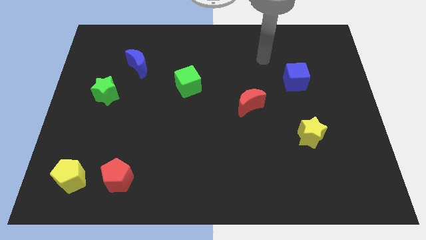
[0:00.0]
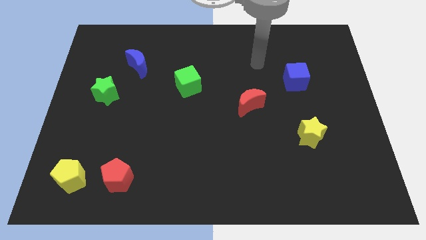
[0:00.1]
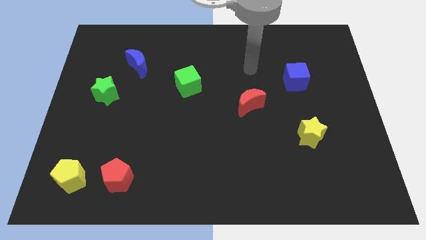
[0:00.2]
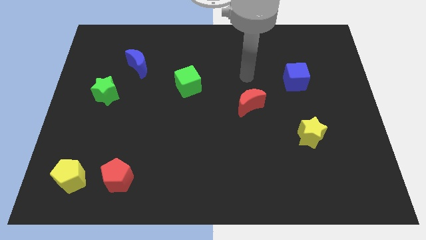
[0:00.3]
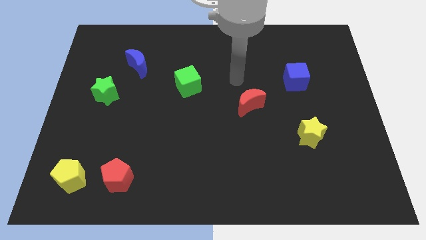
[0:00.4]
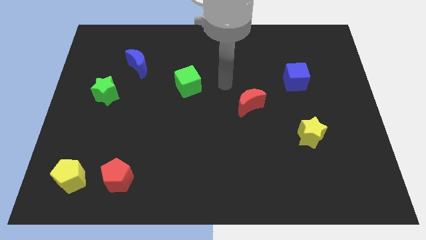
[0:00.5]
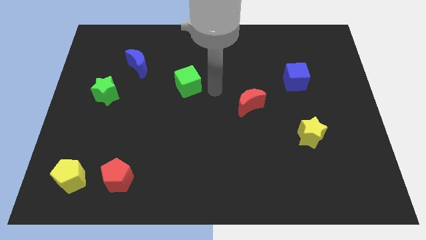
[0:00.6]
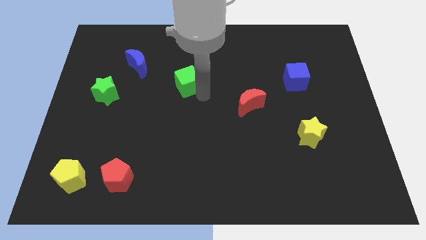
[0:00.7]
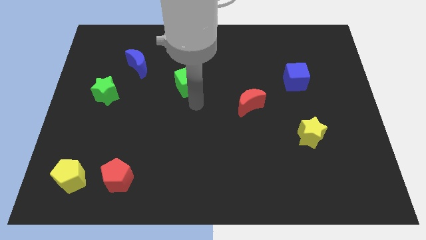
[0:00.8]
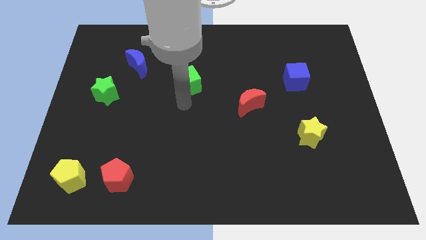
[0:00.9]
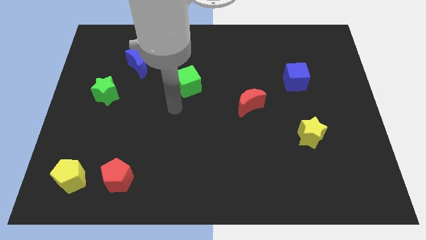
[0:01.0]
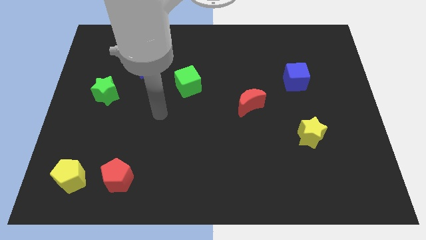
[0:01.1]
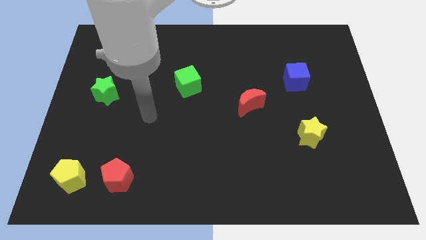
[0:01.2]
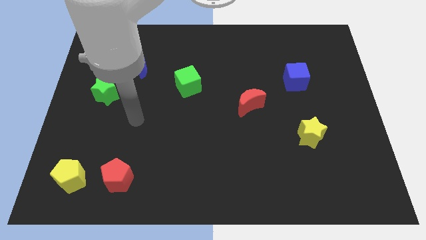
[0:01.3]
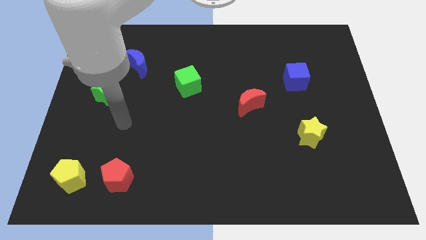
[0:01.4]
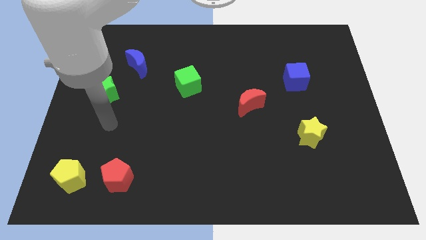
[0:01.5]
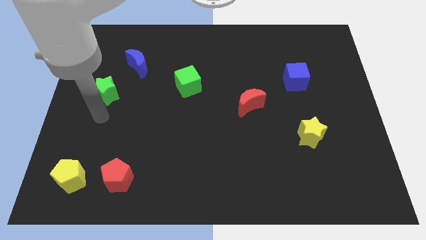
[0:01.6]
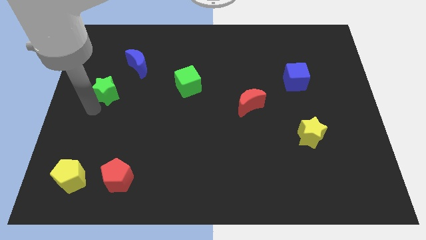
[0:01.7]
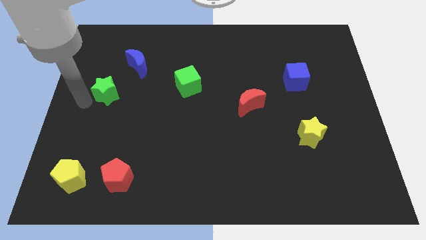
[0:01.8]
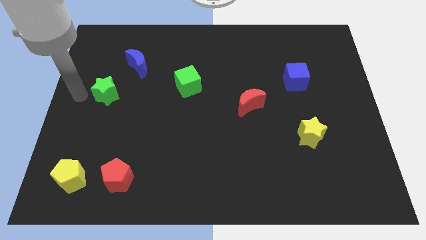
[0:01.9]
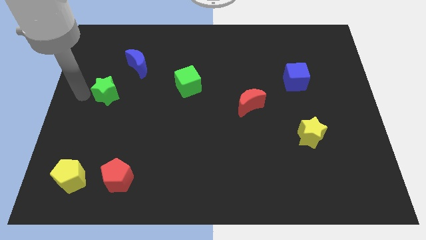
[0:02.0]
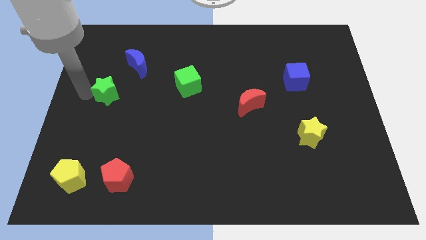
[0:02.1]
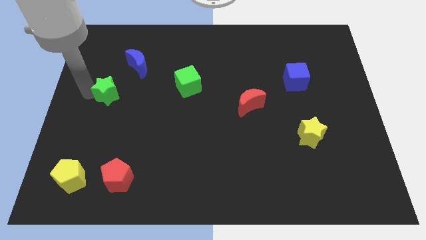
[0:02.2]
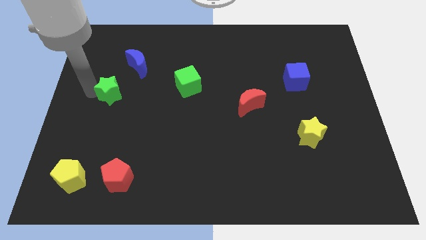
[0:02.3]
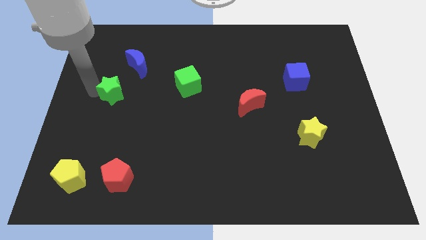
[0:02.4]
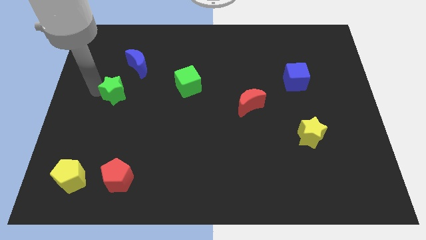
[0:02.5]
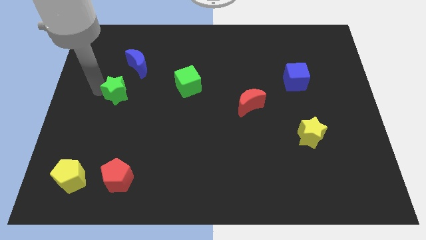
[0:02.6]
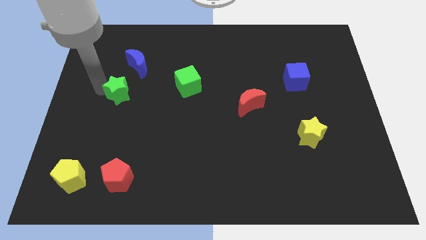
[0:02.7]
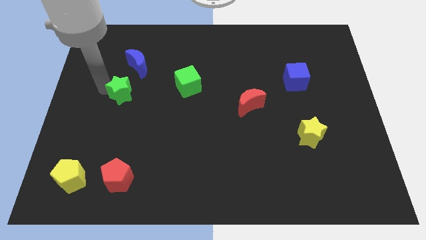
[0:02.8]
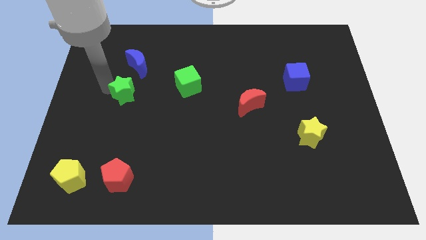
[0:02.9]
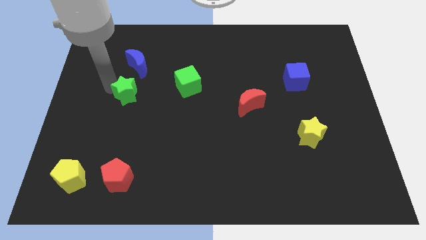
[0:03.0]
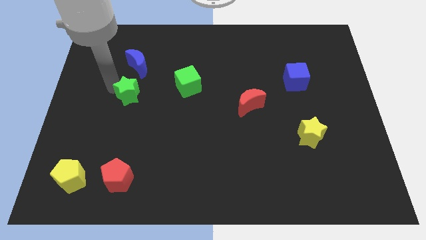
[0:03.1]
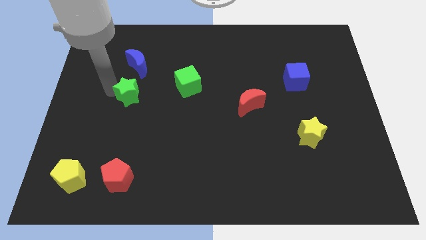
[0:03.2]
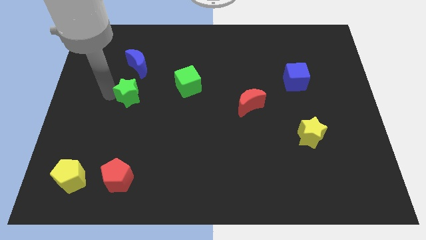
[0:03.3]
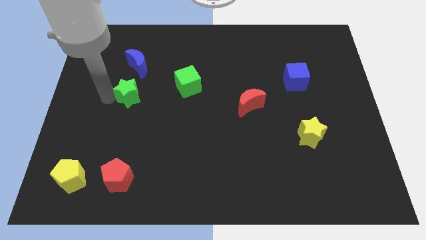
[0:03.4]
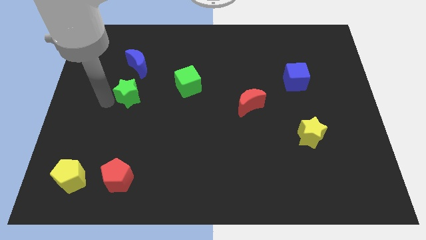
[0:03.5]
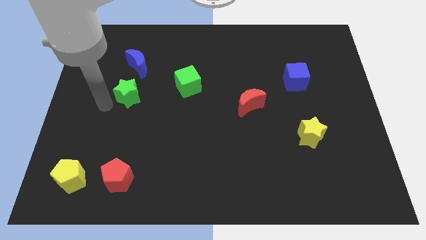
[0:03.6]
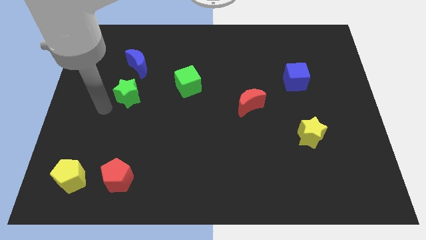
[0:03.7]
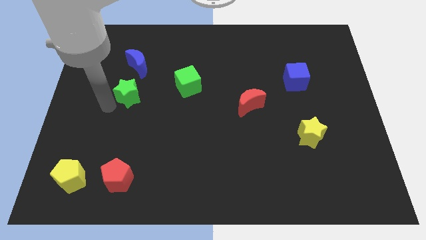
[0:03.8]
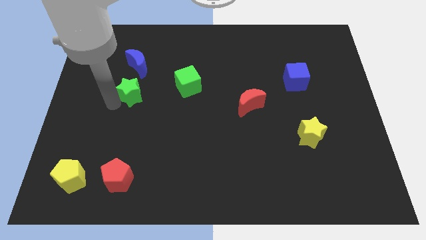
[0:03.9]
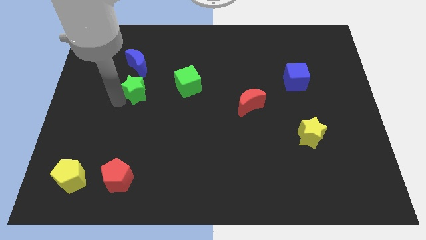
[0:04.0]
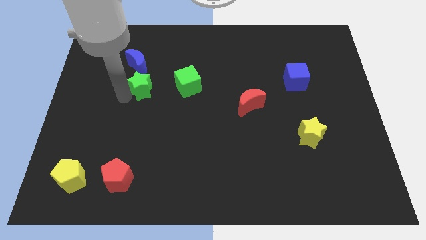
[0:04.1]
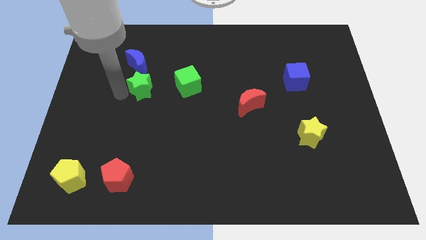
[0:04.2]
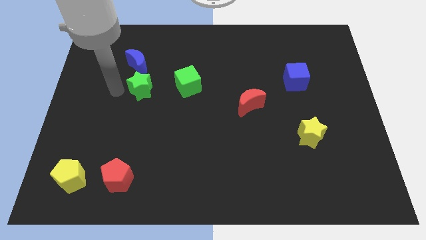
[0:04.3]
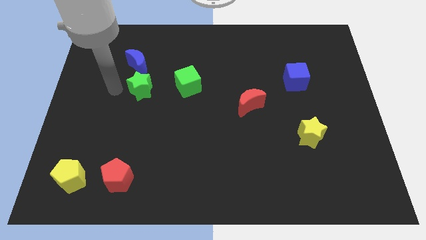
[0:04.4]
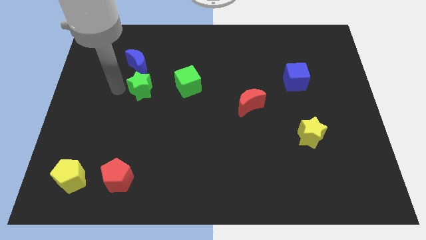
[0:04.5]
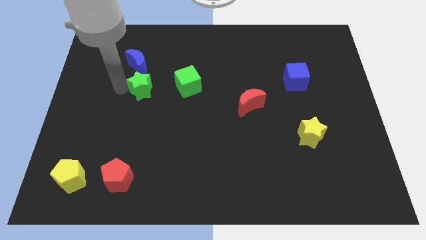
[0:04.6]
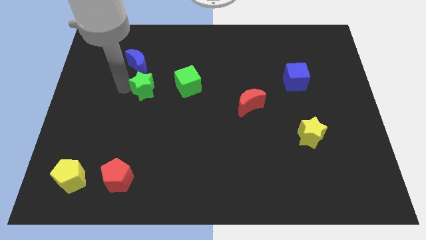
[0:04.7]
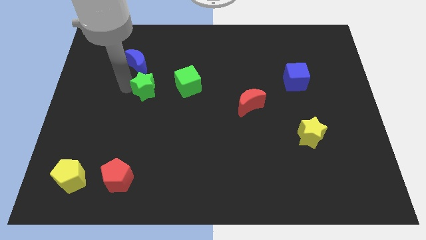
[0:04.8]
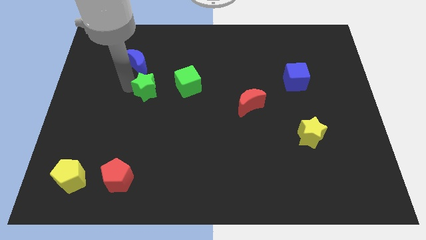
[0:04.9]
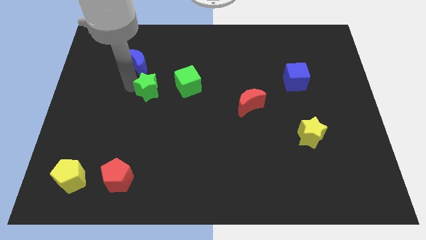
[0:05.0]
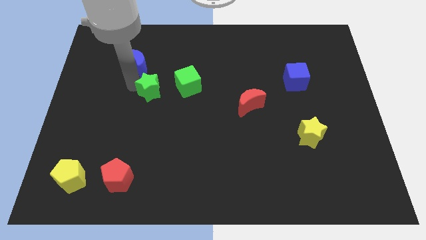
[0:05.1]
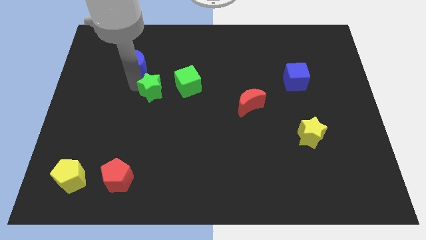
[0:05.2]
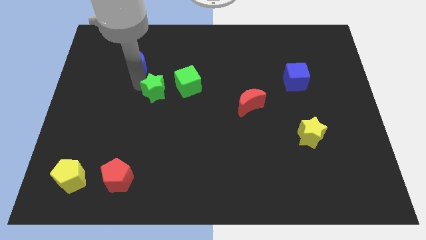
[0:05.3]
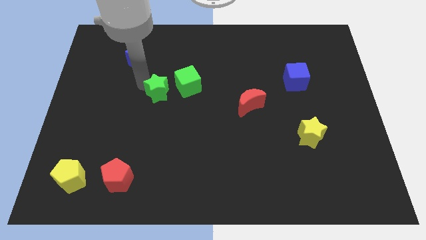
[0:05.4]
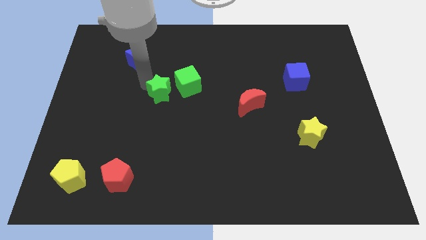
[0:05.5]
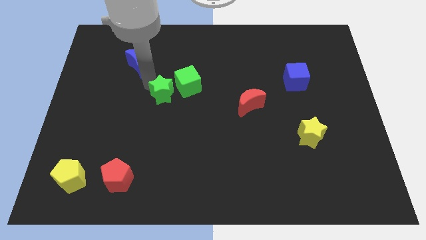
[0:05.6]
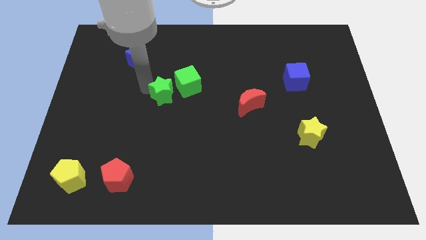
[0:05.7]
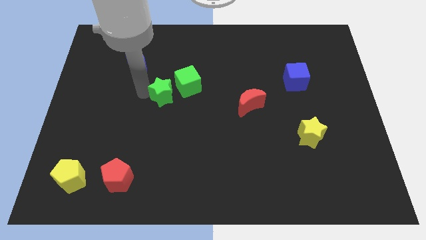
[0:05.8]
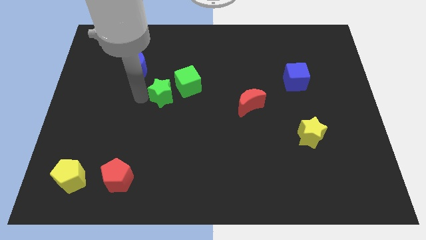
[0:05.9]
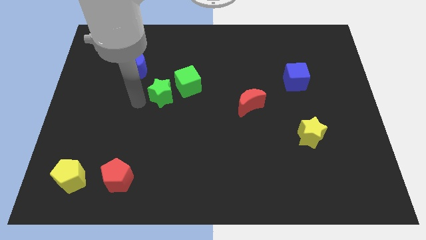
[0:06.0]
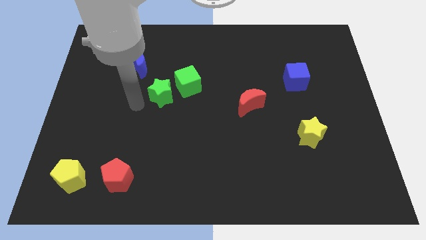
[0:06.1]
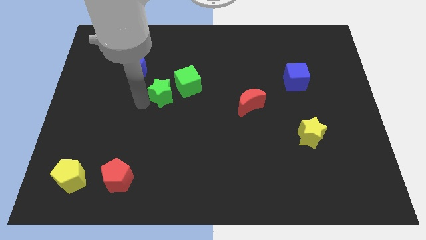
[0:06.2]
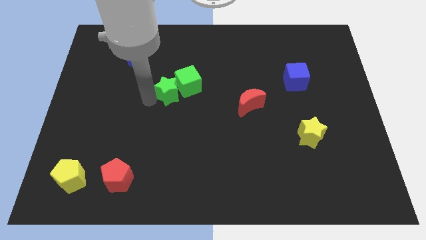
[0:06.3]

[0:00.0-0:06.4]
slide the green star close to the green cube

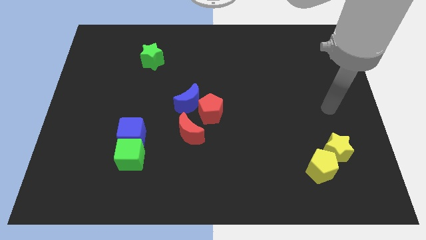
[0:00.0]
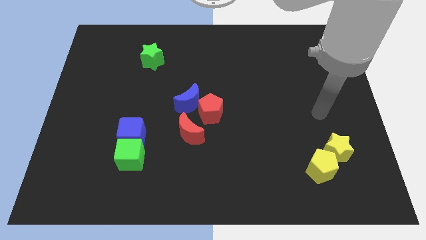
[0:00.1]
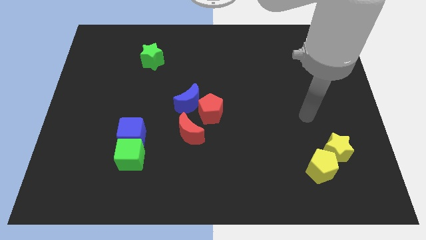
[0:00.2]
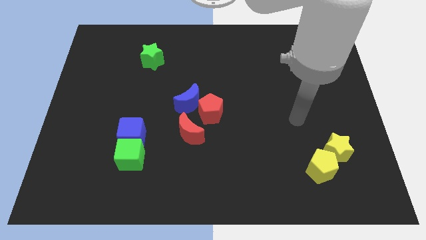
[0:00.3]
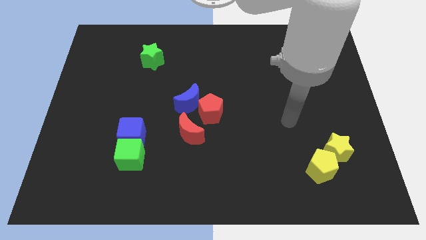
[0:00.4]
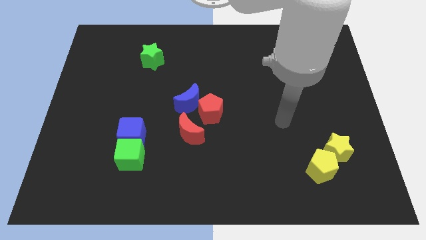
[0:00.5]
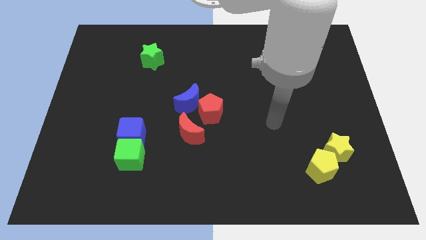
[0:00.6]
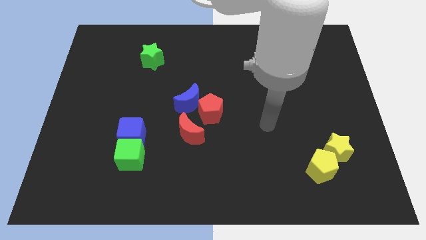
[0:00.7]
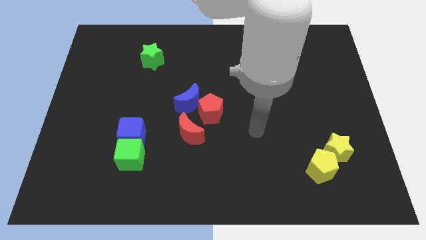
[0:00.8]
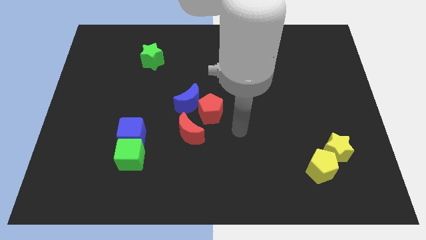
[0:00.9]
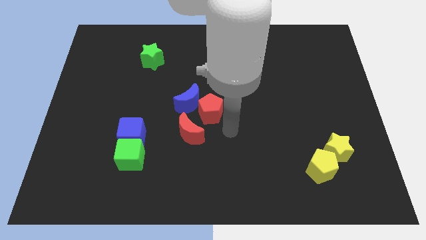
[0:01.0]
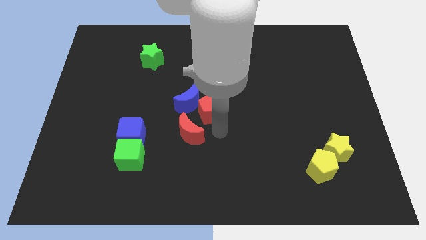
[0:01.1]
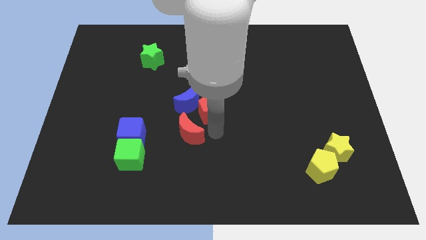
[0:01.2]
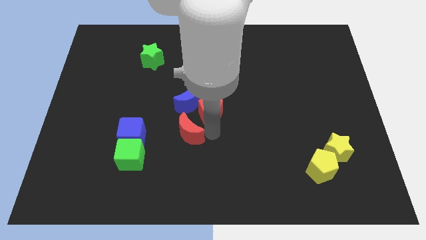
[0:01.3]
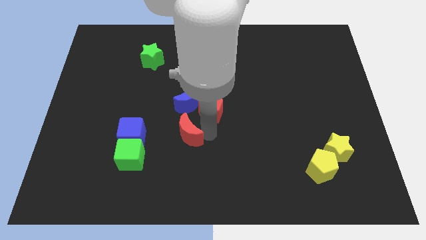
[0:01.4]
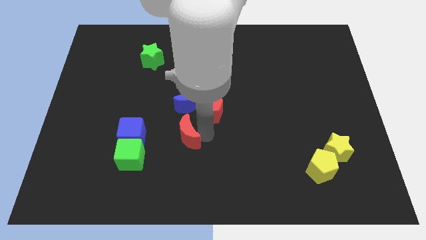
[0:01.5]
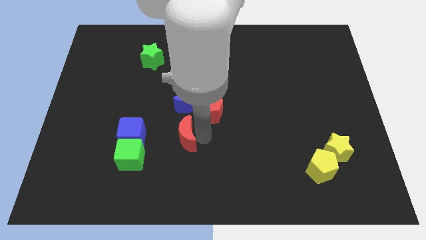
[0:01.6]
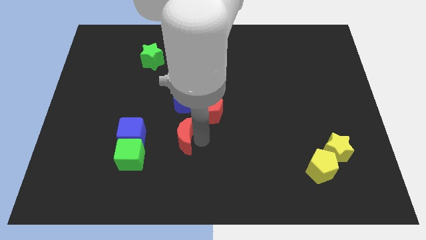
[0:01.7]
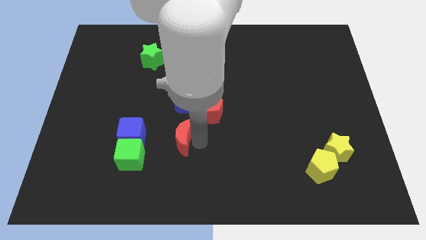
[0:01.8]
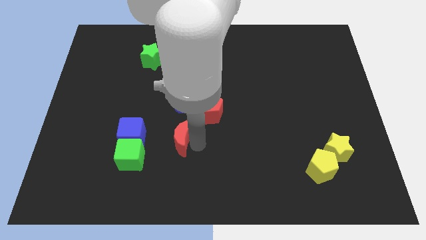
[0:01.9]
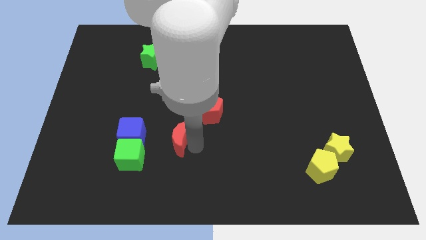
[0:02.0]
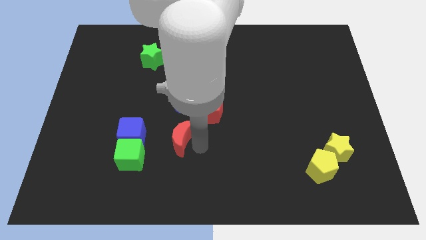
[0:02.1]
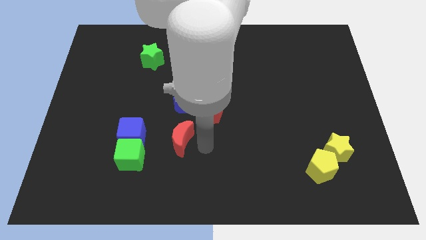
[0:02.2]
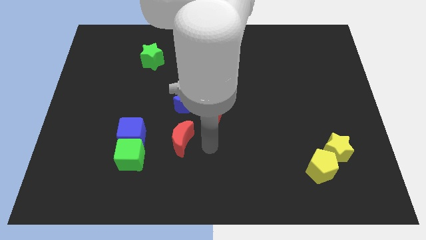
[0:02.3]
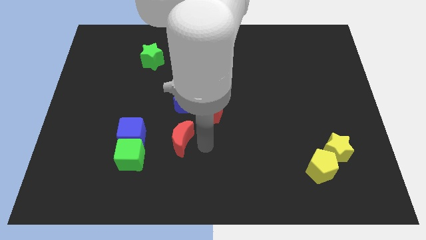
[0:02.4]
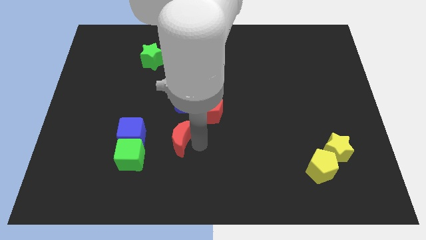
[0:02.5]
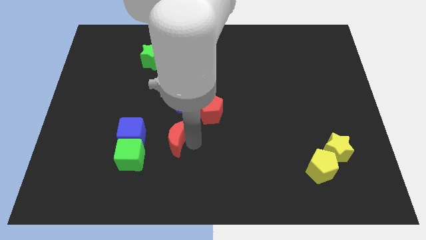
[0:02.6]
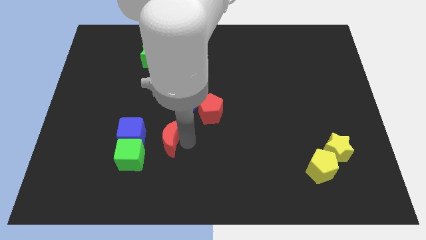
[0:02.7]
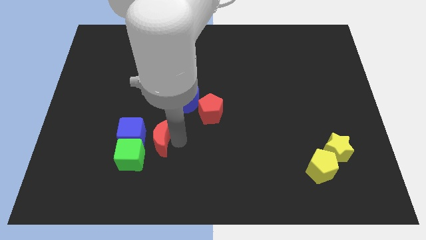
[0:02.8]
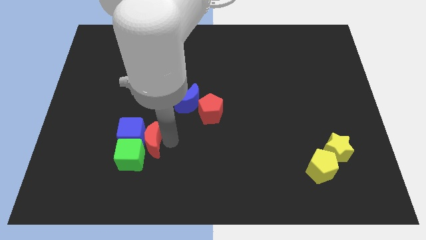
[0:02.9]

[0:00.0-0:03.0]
move the red moon close to the blue cube
